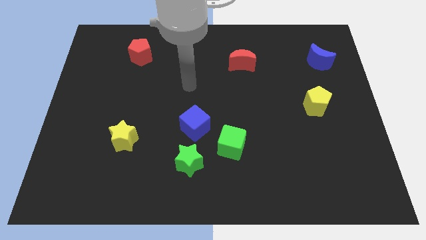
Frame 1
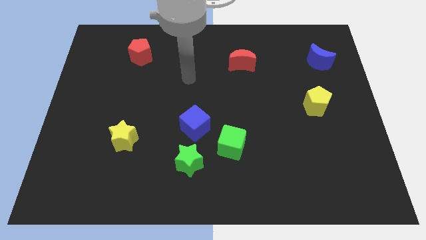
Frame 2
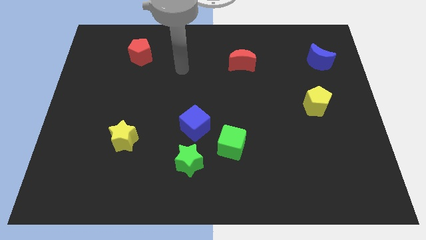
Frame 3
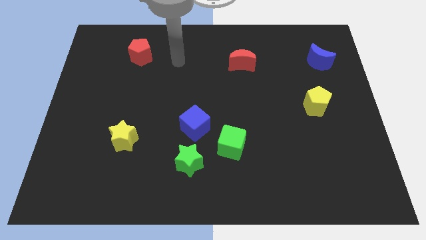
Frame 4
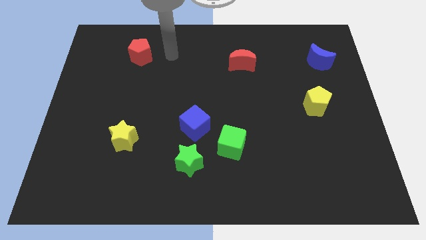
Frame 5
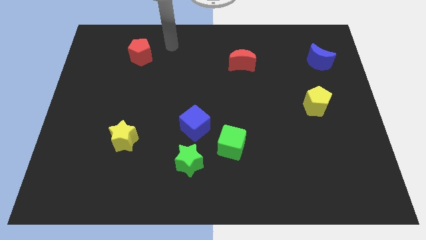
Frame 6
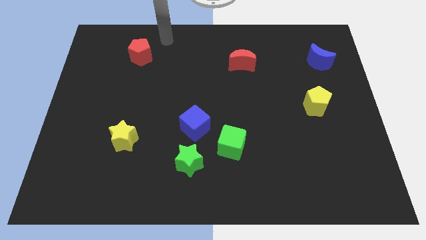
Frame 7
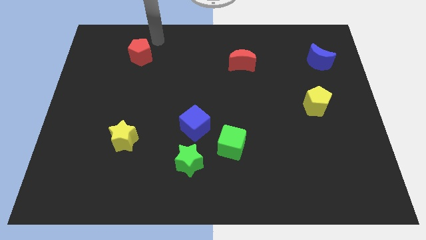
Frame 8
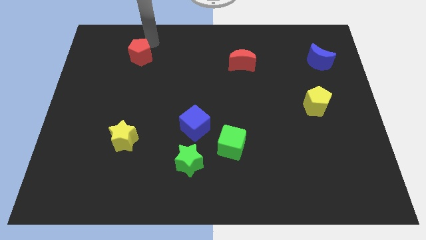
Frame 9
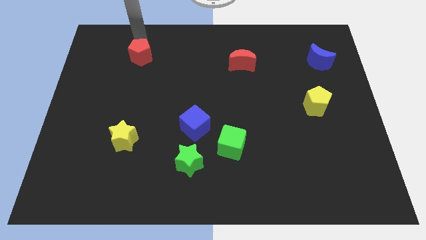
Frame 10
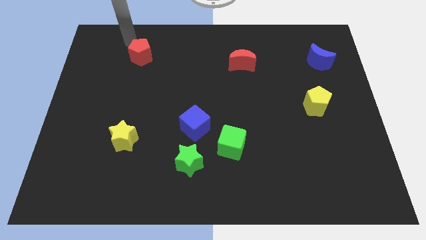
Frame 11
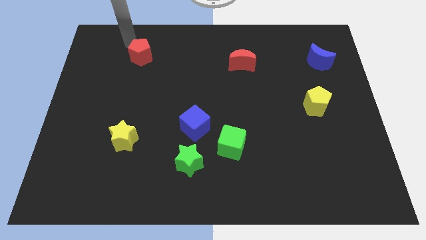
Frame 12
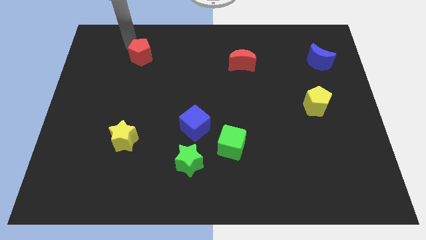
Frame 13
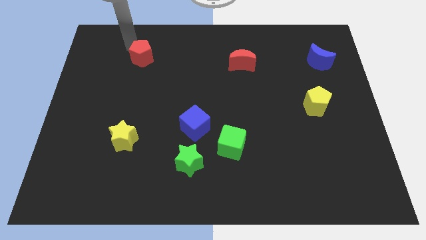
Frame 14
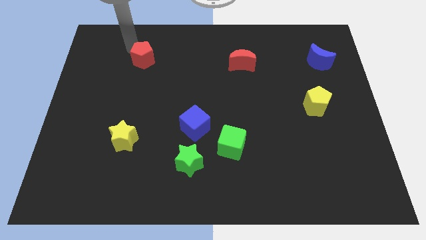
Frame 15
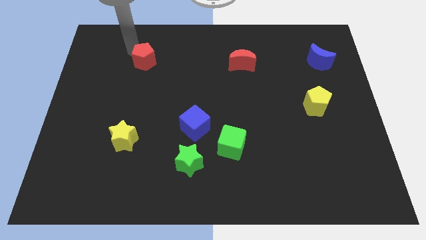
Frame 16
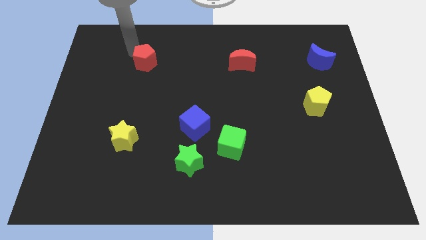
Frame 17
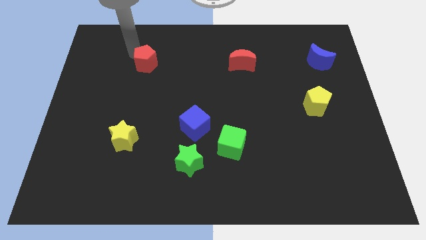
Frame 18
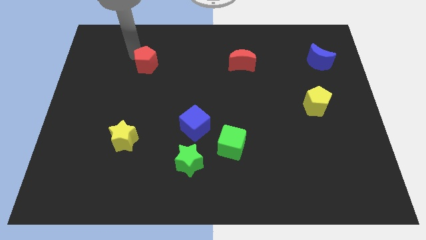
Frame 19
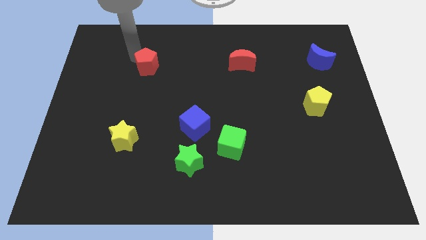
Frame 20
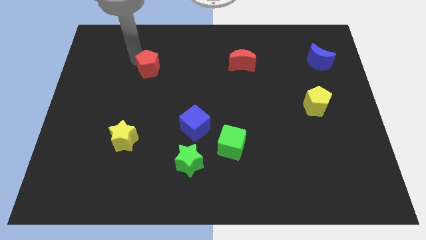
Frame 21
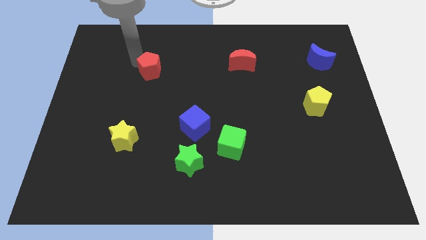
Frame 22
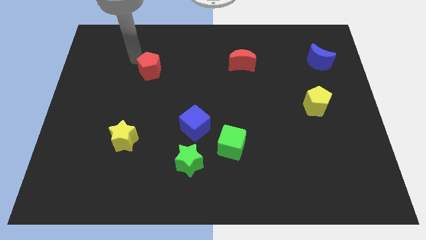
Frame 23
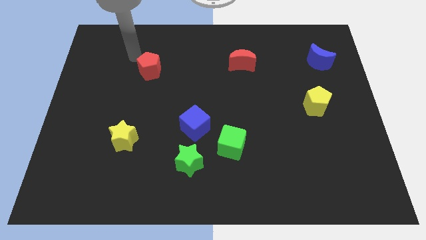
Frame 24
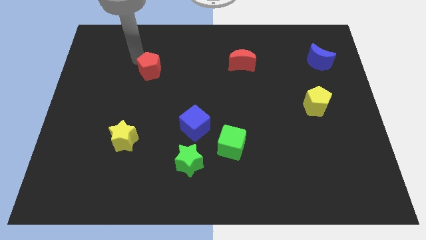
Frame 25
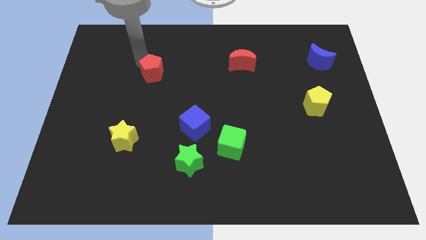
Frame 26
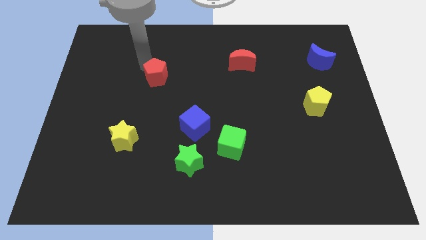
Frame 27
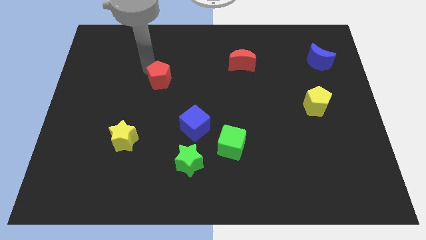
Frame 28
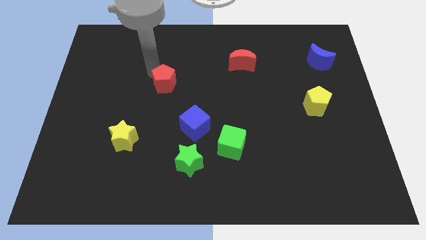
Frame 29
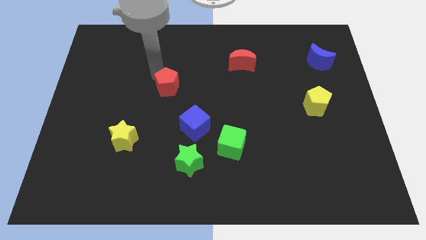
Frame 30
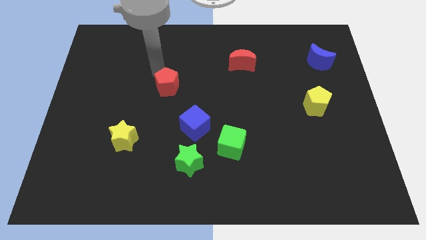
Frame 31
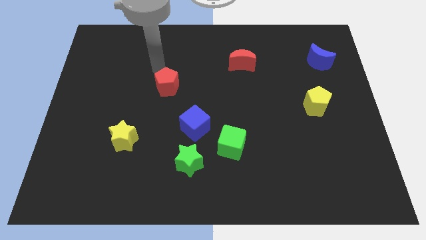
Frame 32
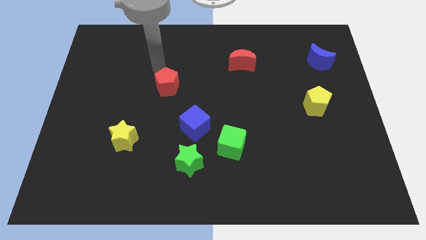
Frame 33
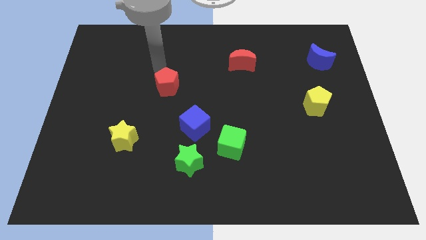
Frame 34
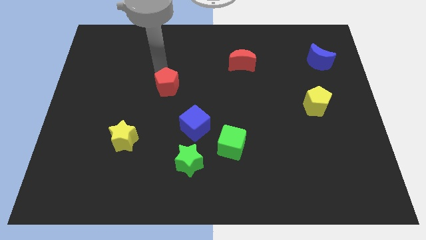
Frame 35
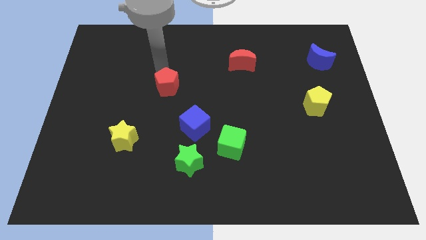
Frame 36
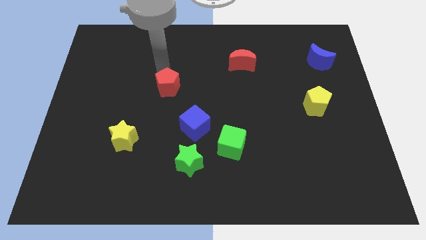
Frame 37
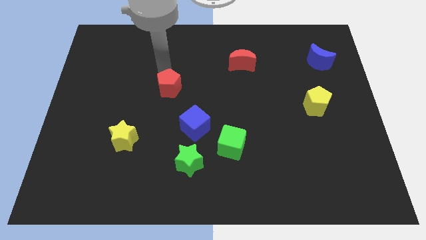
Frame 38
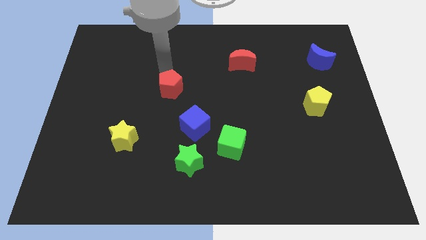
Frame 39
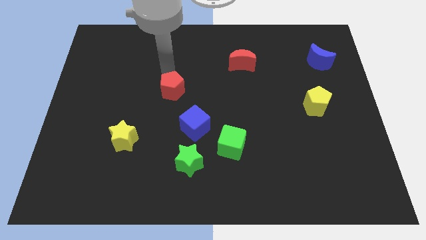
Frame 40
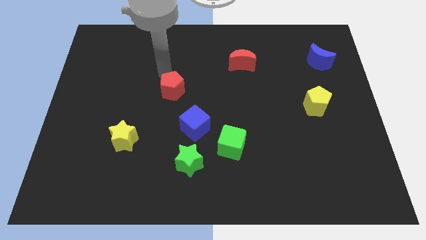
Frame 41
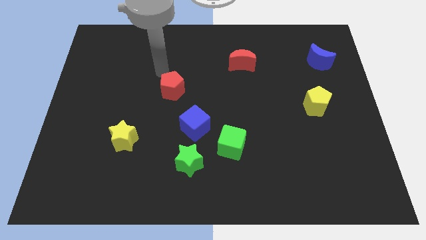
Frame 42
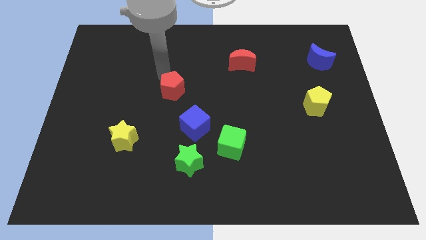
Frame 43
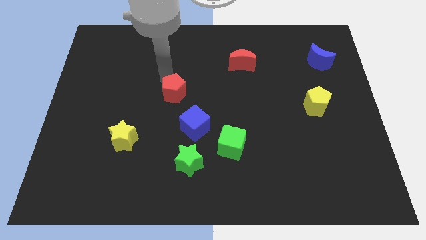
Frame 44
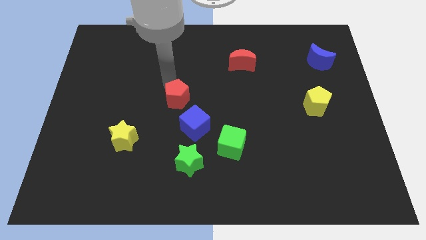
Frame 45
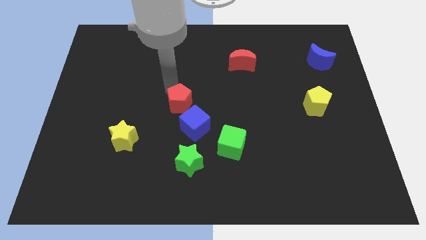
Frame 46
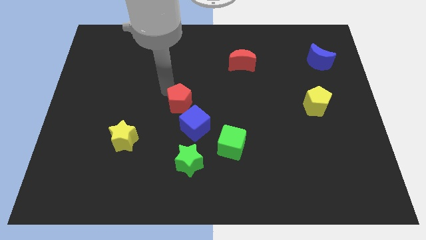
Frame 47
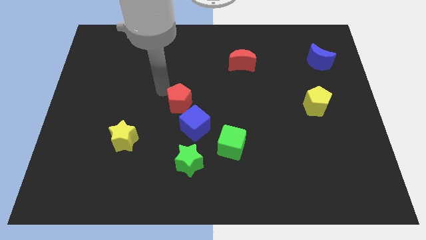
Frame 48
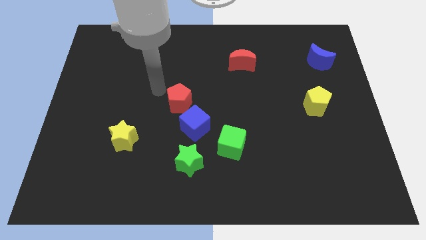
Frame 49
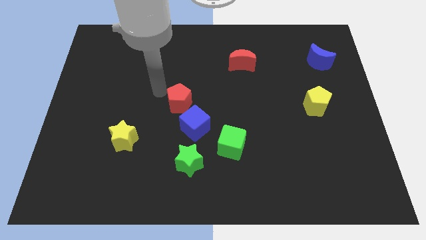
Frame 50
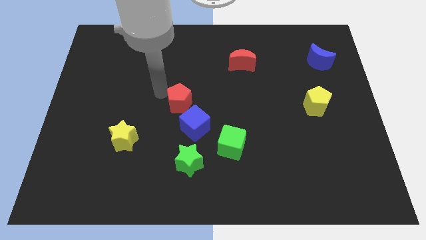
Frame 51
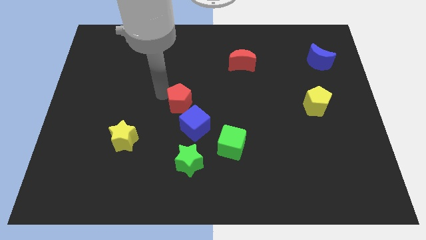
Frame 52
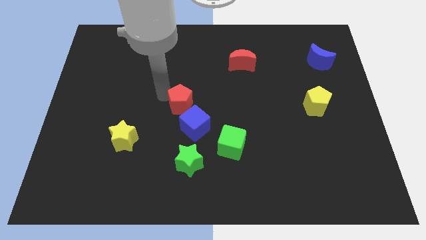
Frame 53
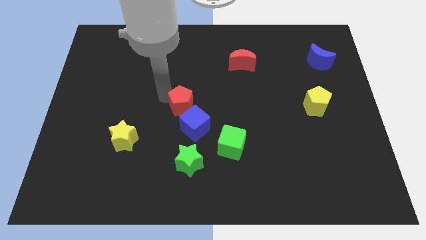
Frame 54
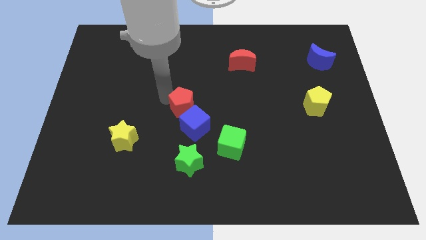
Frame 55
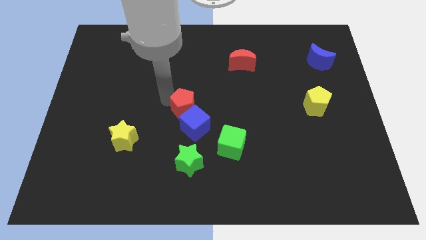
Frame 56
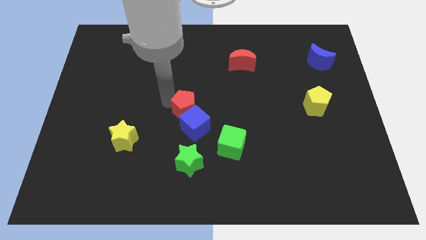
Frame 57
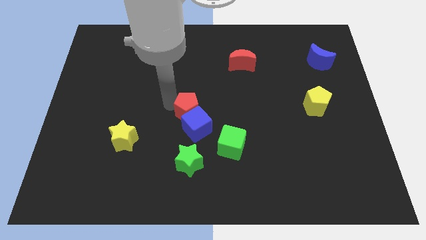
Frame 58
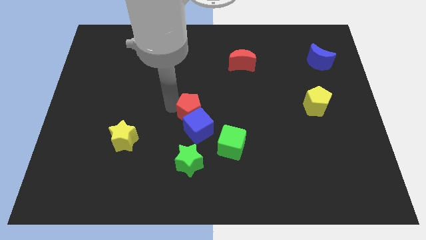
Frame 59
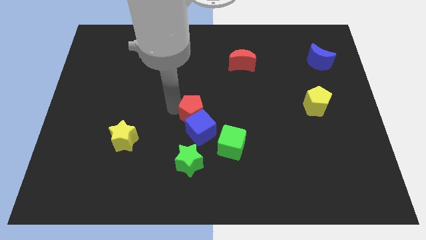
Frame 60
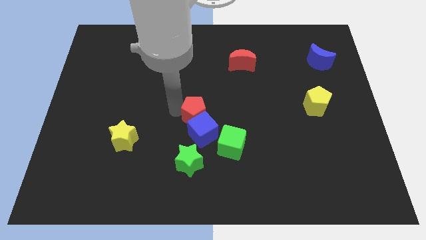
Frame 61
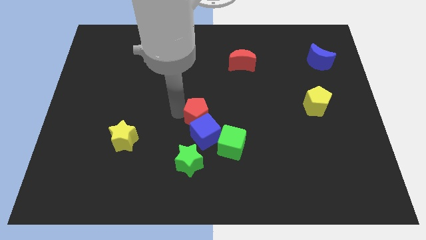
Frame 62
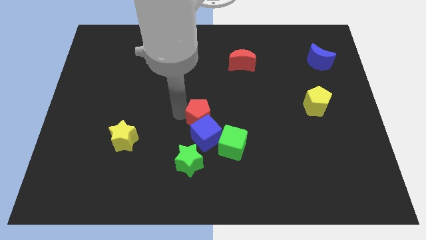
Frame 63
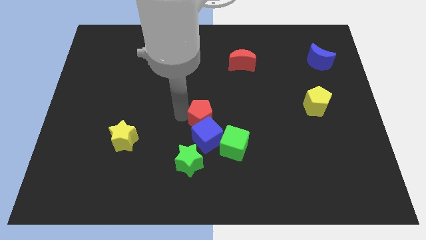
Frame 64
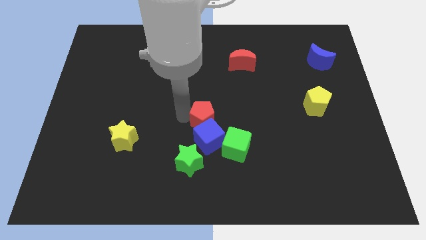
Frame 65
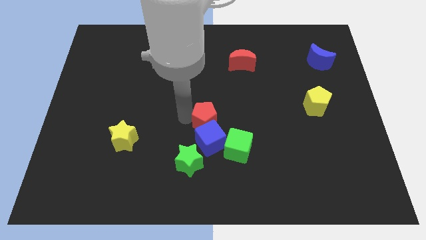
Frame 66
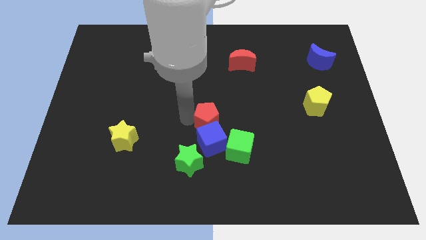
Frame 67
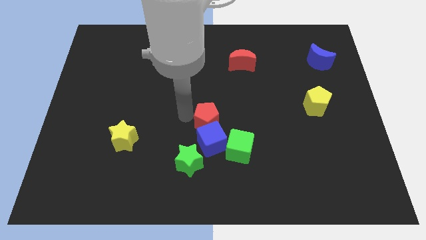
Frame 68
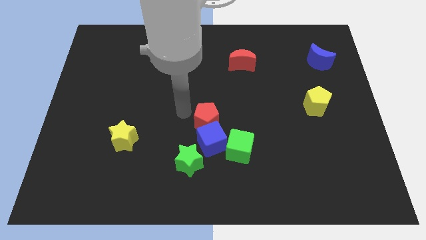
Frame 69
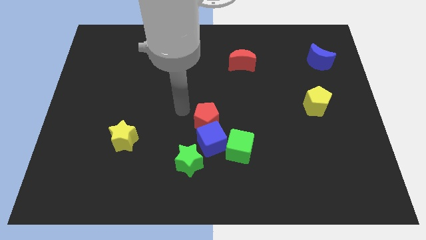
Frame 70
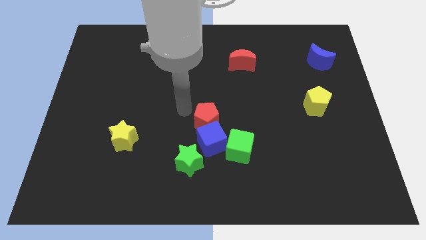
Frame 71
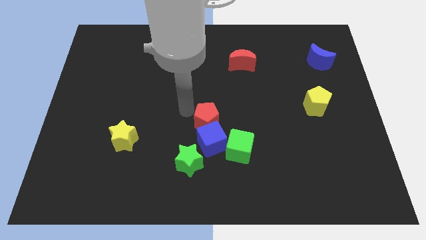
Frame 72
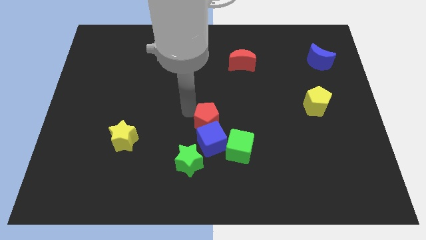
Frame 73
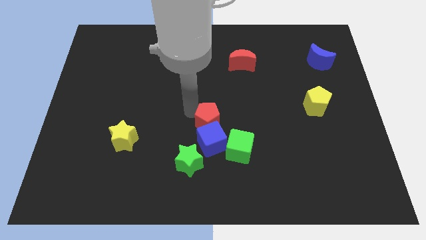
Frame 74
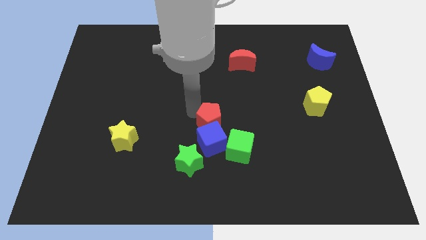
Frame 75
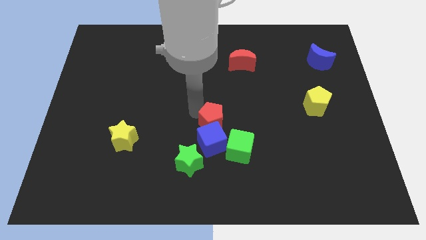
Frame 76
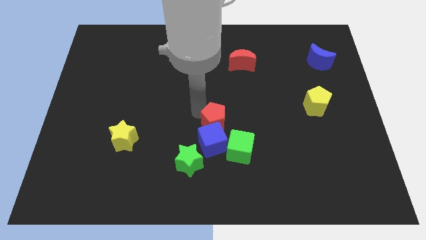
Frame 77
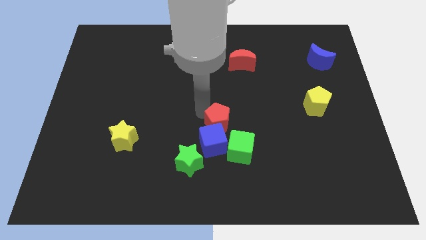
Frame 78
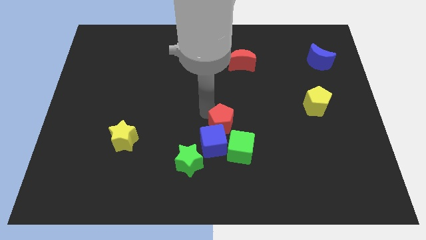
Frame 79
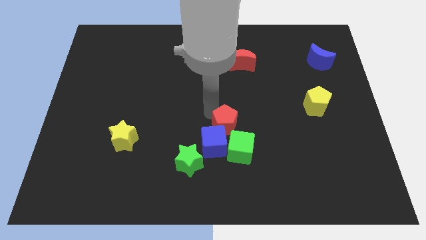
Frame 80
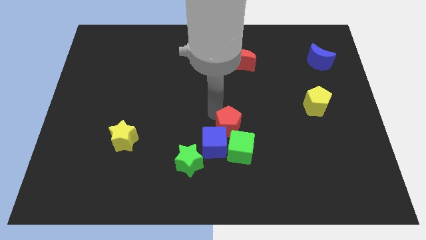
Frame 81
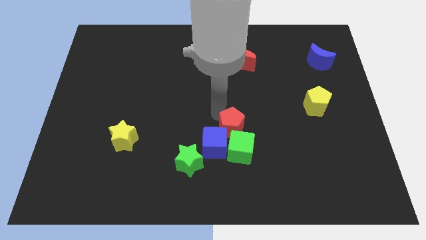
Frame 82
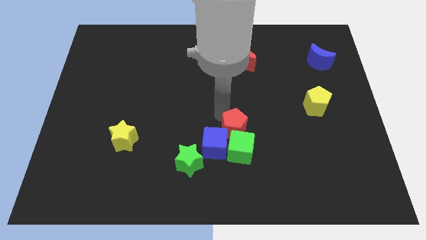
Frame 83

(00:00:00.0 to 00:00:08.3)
put the red pentagon to the green cube
